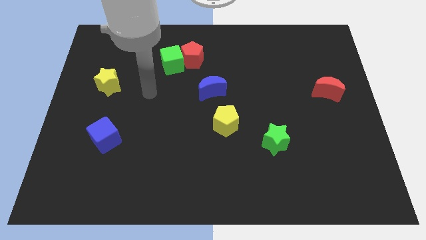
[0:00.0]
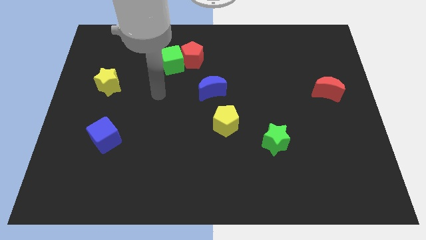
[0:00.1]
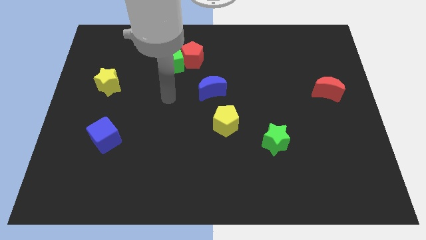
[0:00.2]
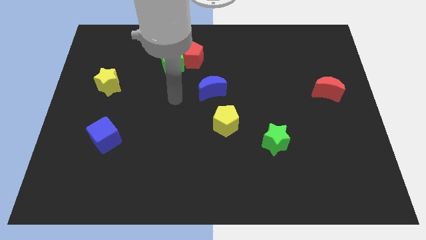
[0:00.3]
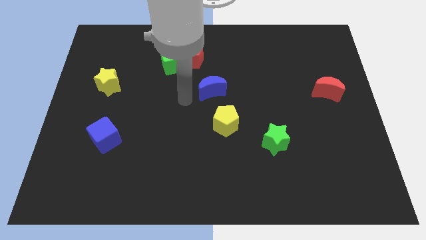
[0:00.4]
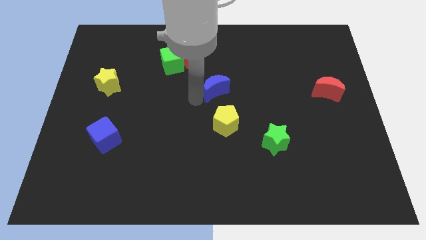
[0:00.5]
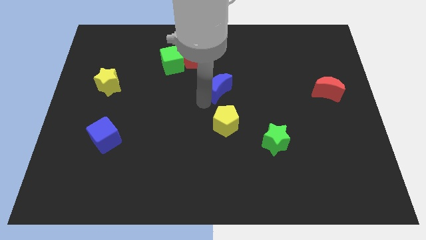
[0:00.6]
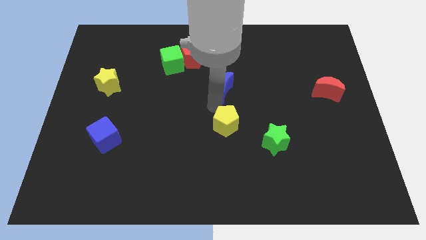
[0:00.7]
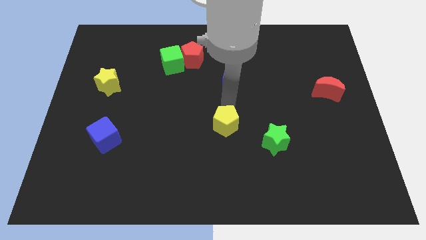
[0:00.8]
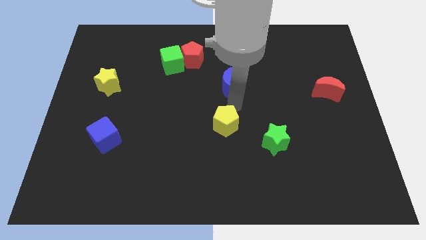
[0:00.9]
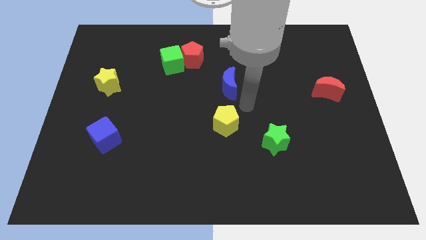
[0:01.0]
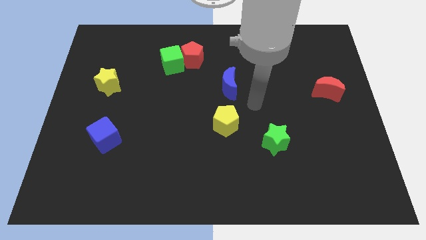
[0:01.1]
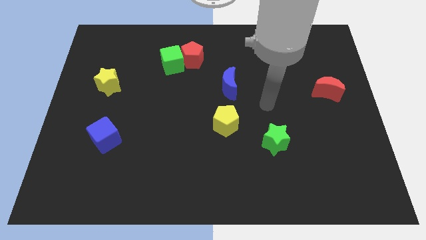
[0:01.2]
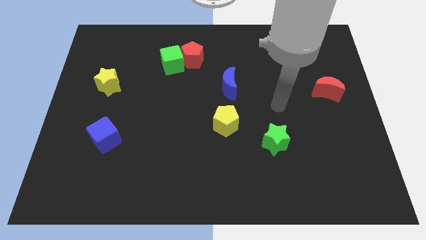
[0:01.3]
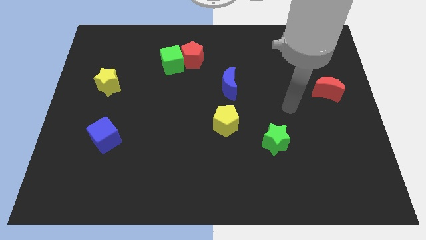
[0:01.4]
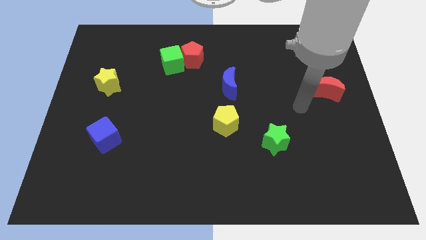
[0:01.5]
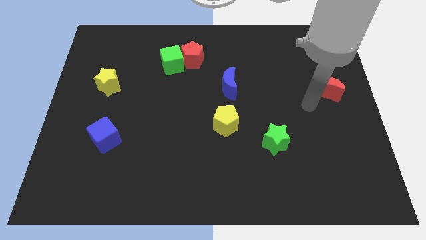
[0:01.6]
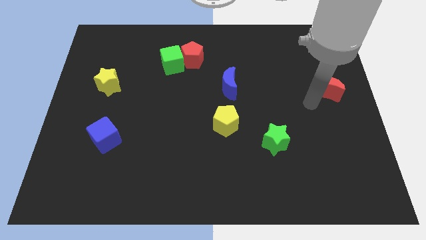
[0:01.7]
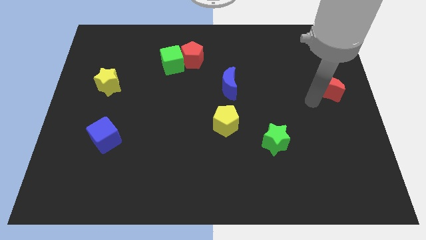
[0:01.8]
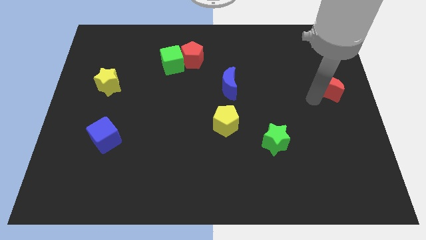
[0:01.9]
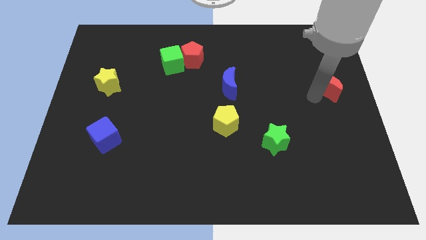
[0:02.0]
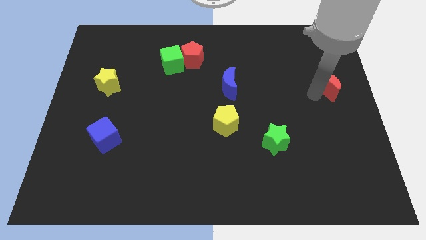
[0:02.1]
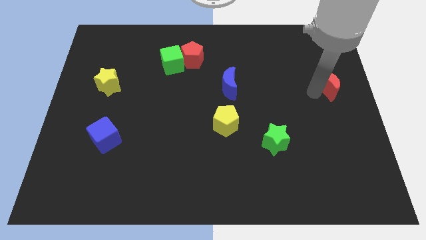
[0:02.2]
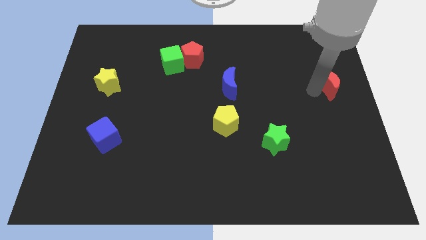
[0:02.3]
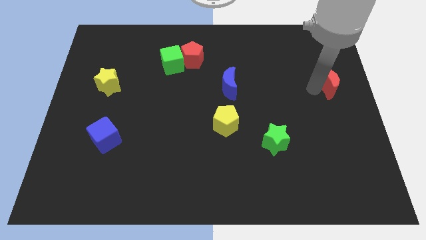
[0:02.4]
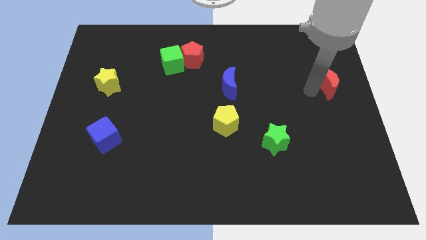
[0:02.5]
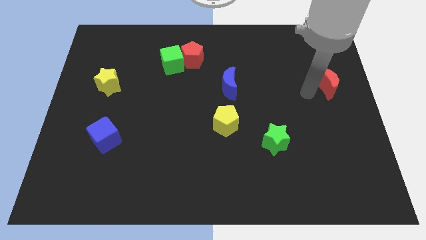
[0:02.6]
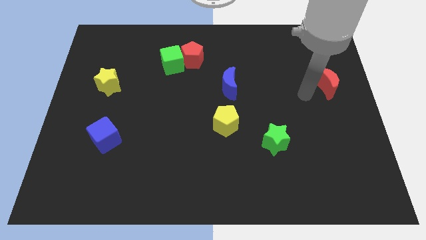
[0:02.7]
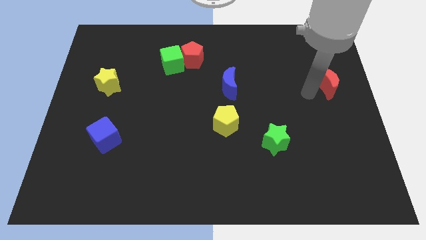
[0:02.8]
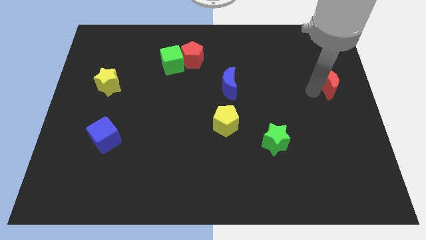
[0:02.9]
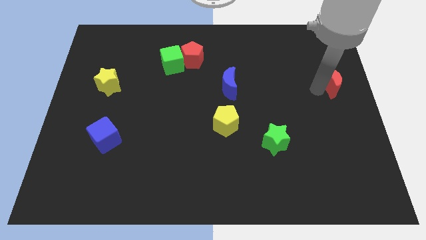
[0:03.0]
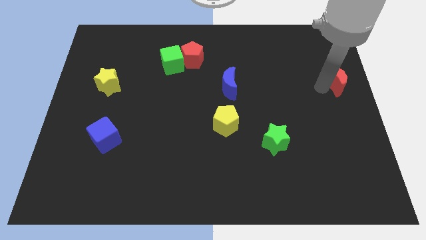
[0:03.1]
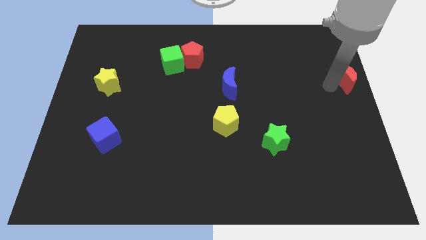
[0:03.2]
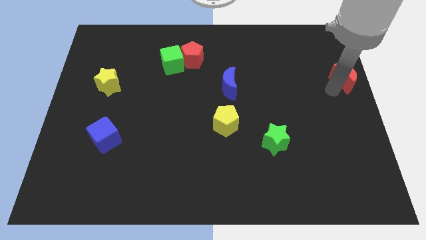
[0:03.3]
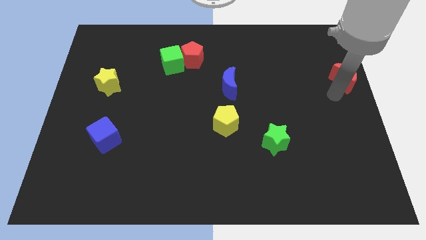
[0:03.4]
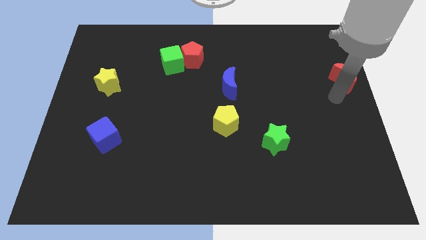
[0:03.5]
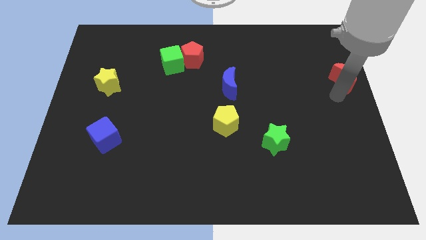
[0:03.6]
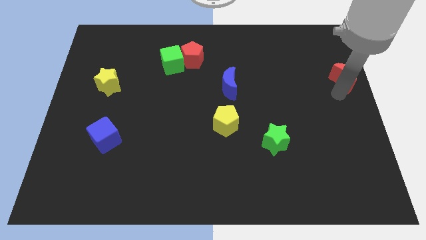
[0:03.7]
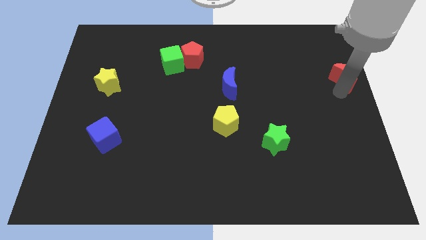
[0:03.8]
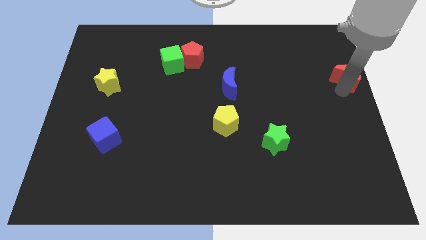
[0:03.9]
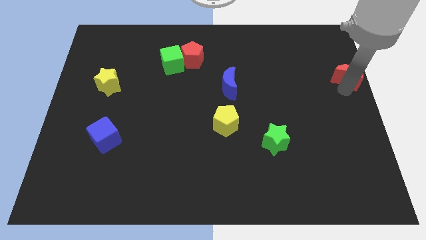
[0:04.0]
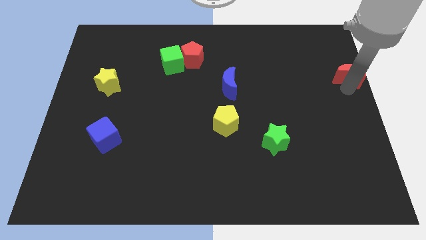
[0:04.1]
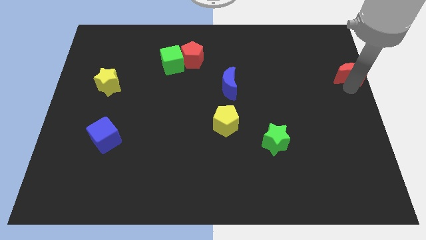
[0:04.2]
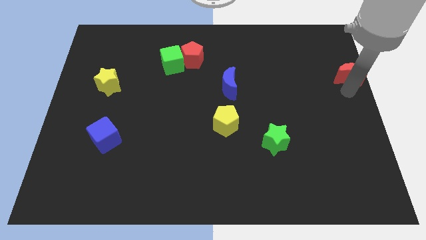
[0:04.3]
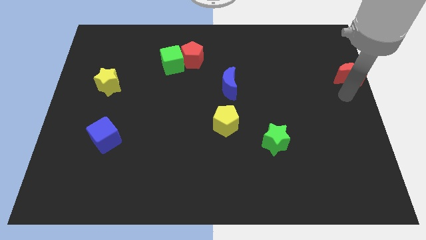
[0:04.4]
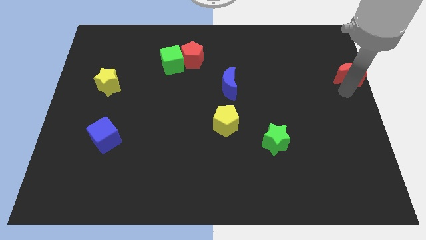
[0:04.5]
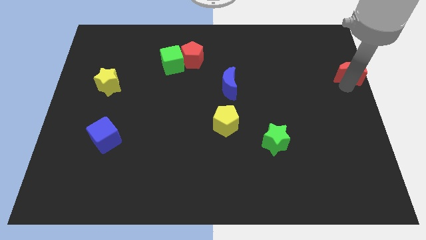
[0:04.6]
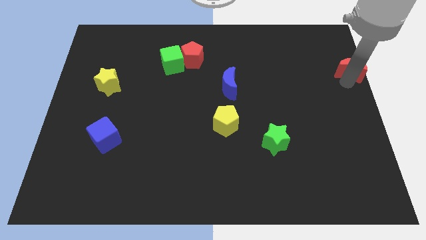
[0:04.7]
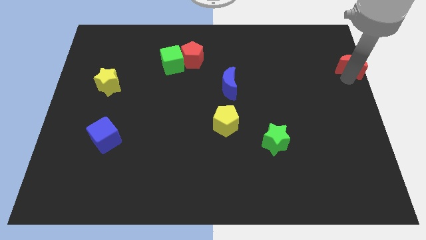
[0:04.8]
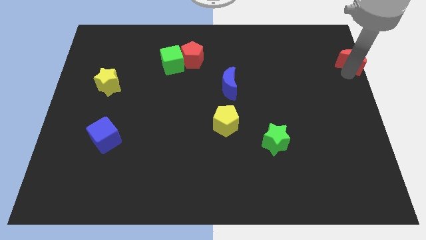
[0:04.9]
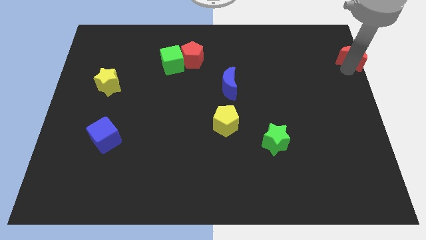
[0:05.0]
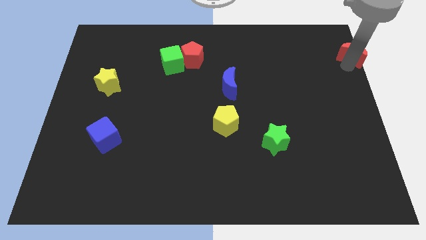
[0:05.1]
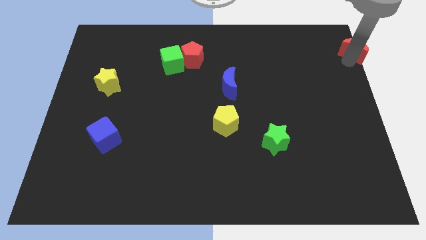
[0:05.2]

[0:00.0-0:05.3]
push the red moon to the top right of the board
